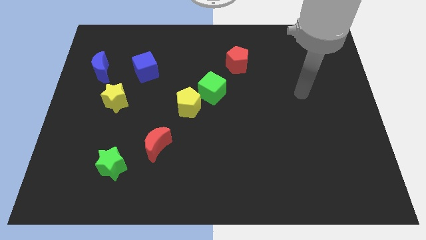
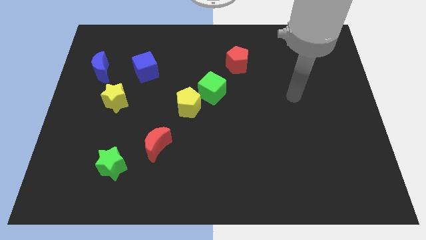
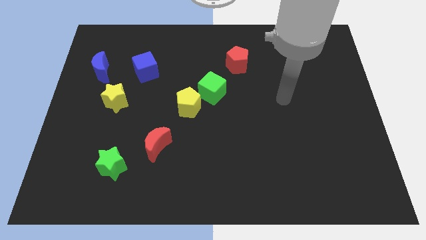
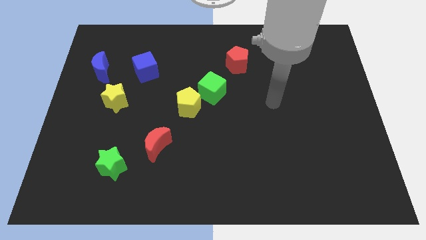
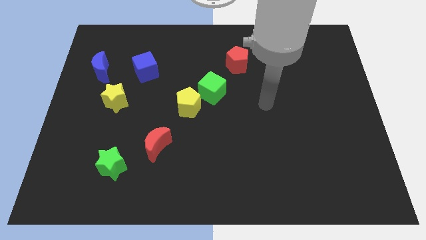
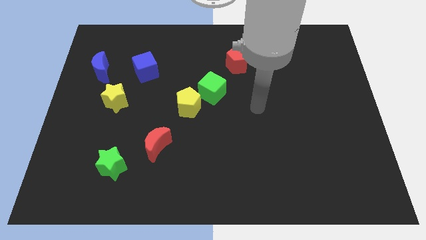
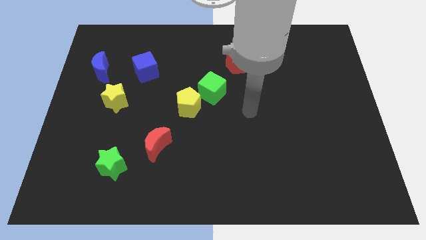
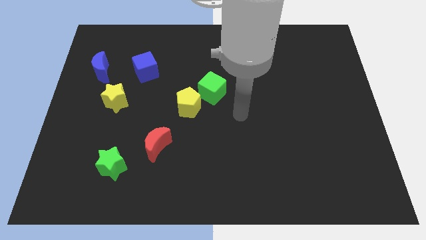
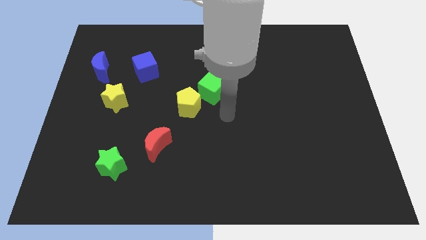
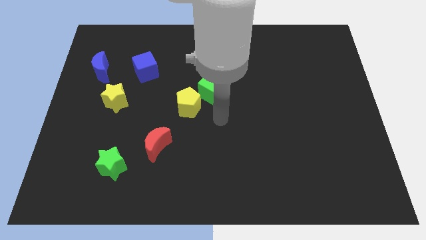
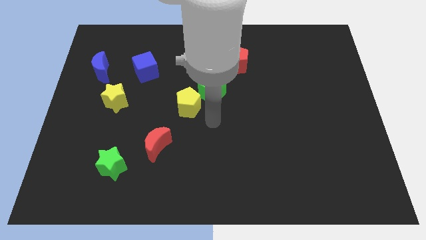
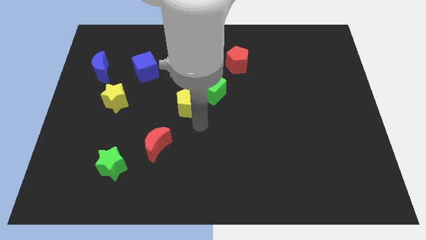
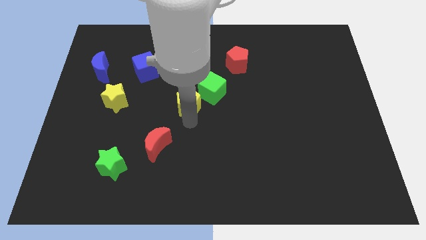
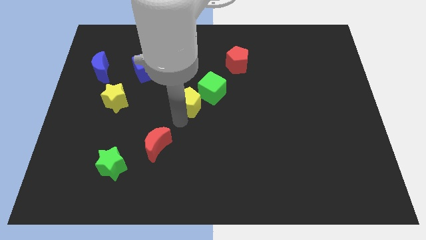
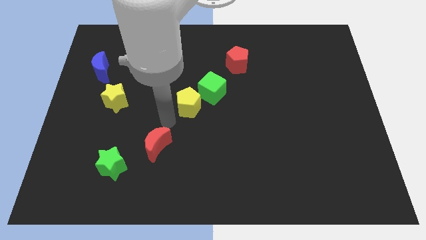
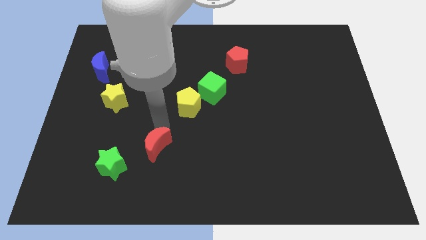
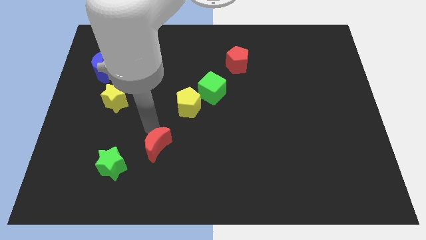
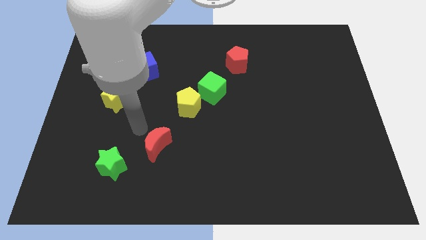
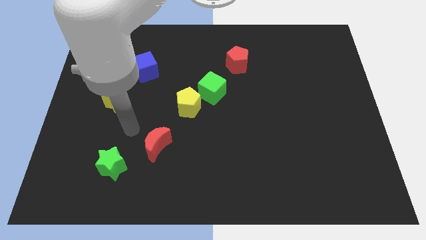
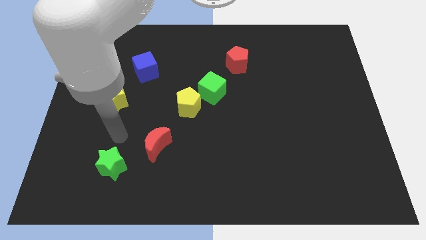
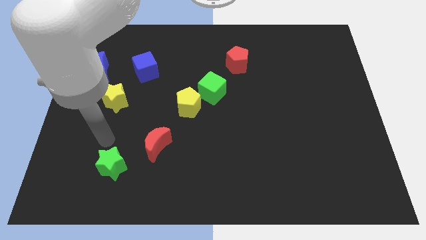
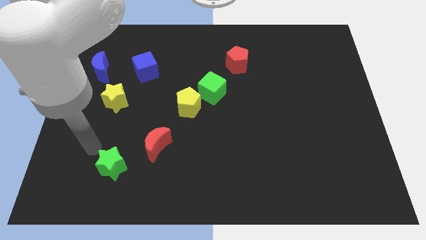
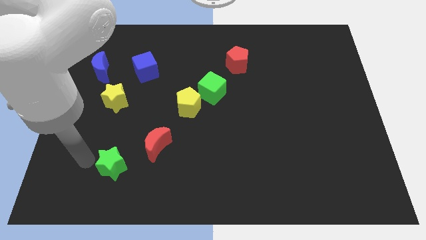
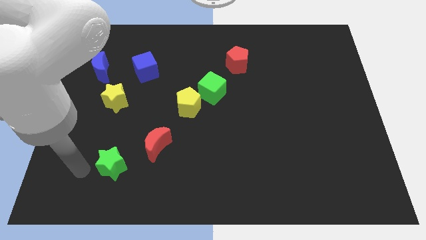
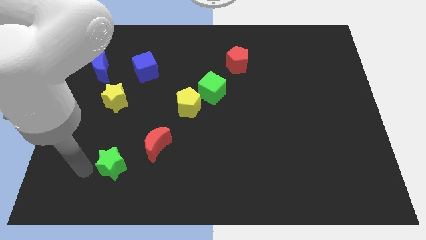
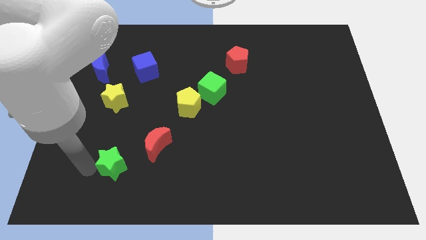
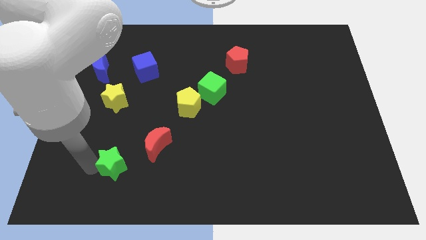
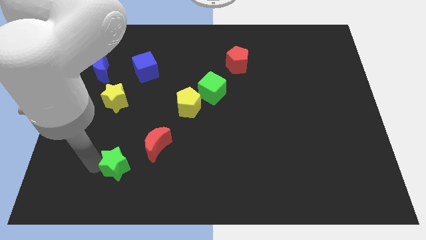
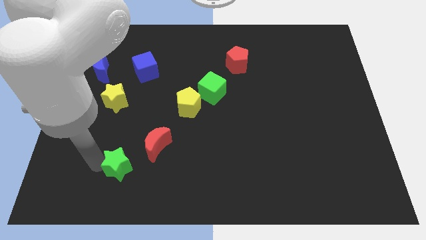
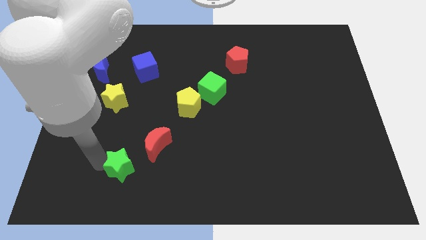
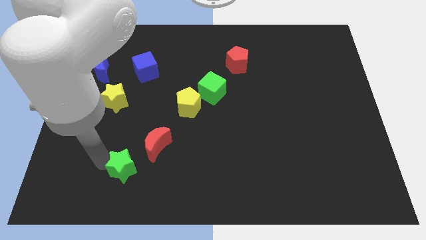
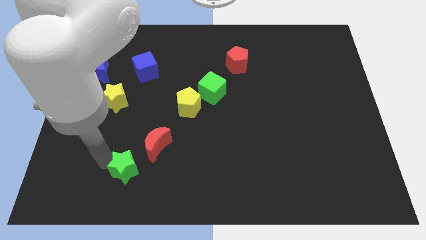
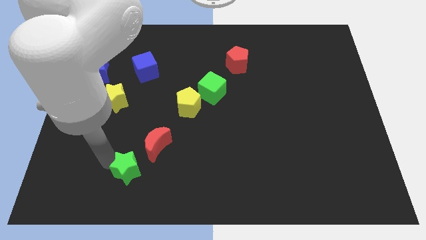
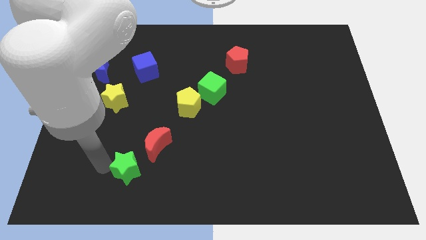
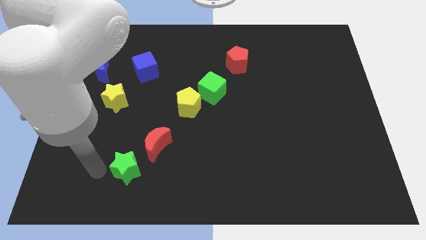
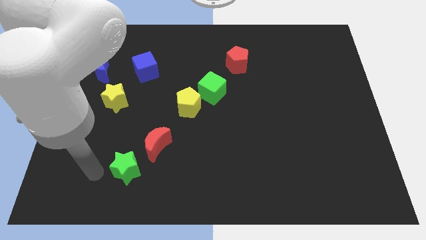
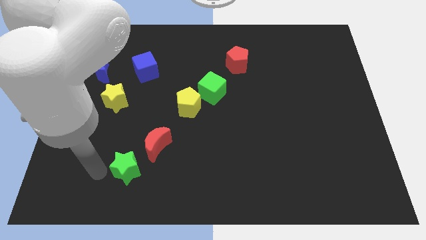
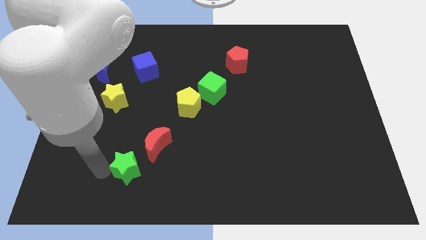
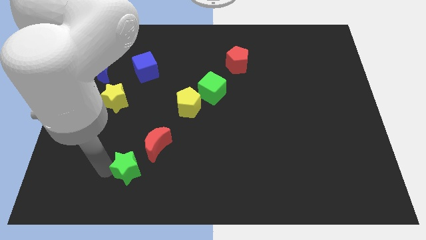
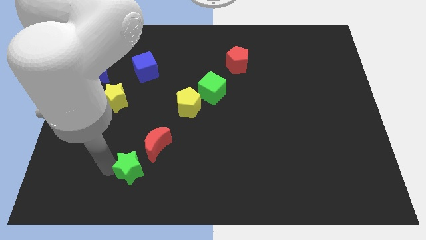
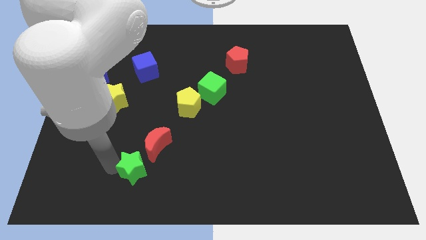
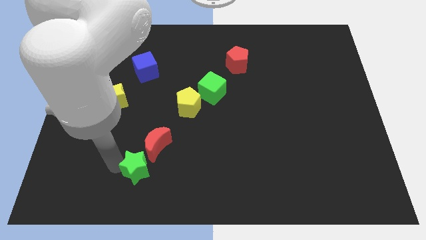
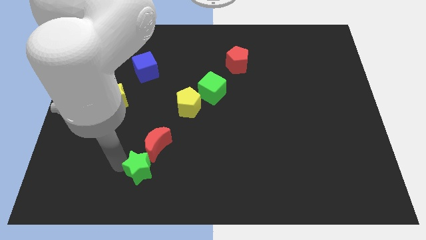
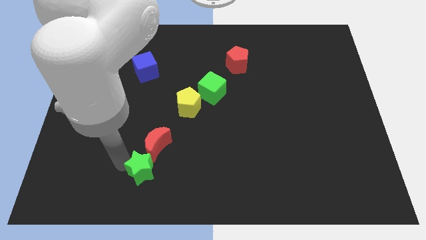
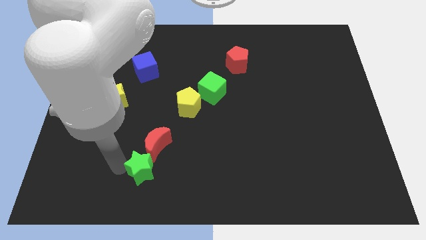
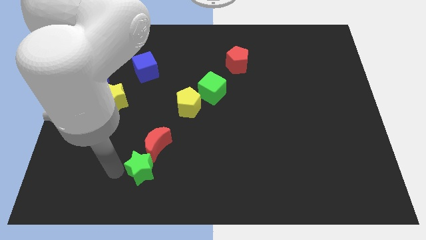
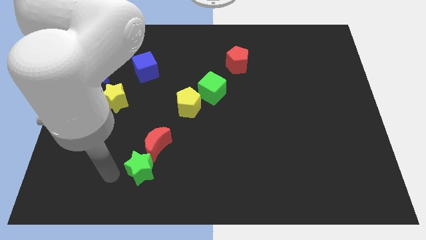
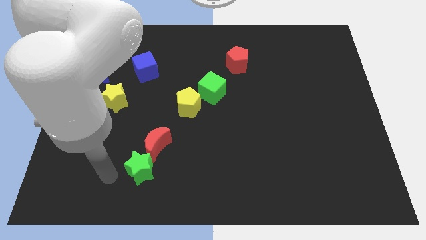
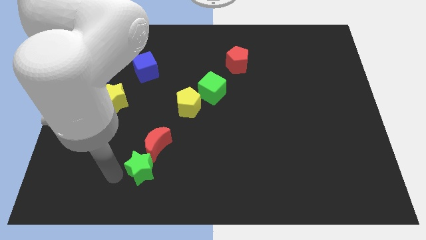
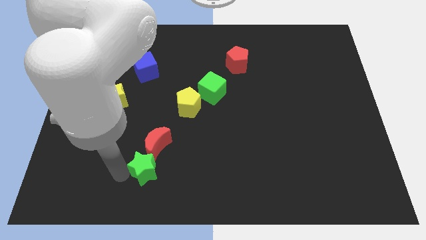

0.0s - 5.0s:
push the green star to the right a bit

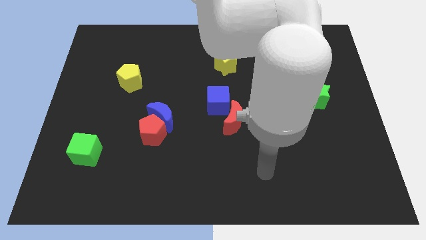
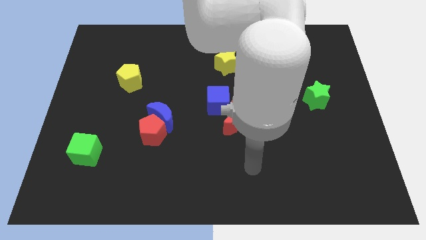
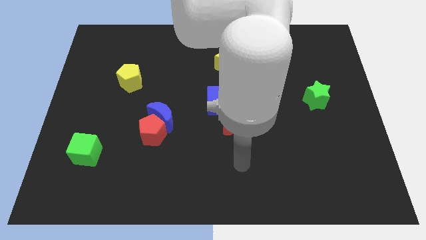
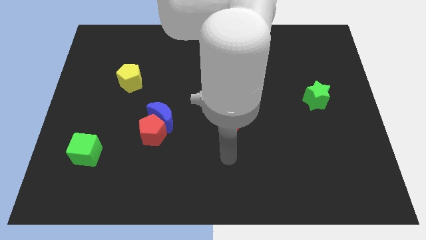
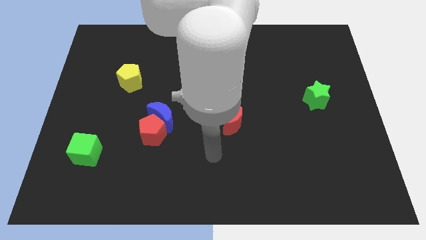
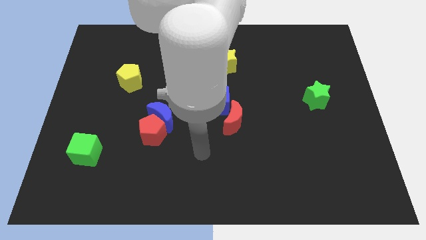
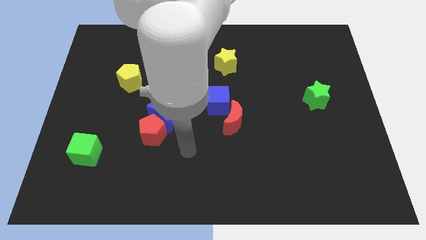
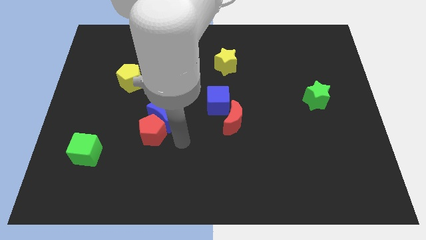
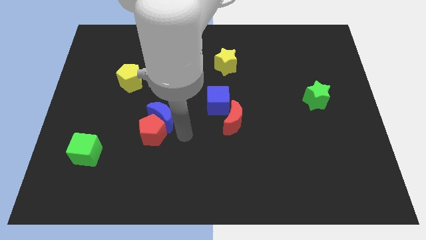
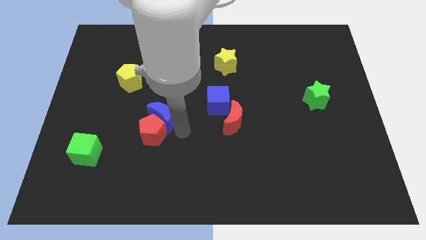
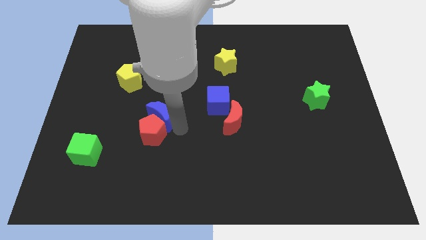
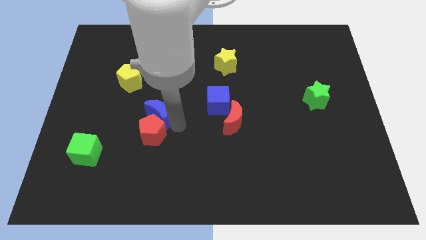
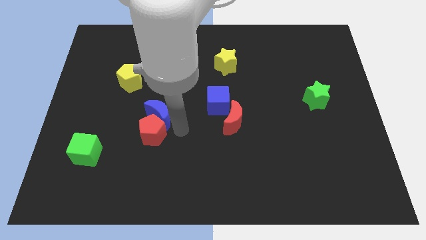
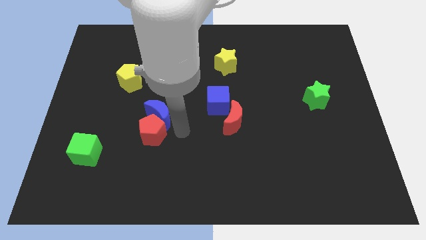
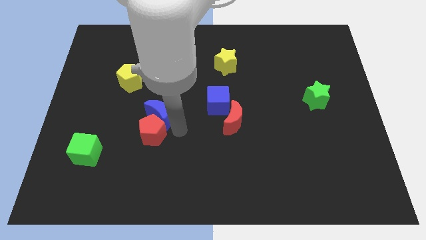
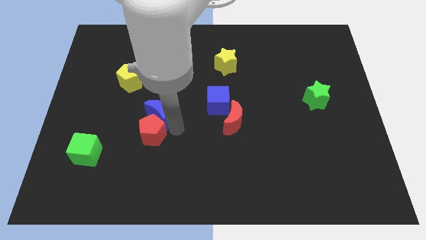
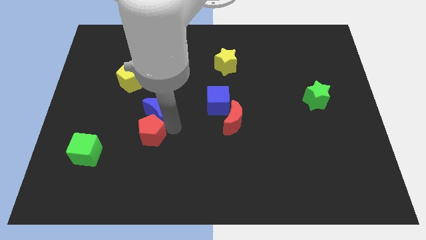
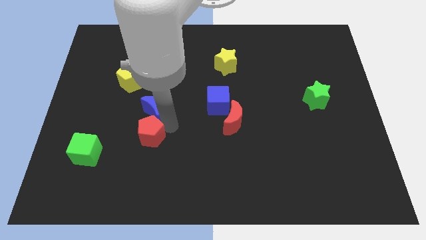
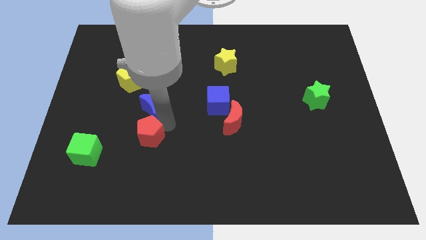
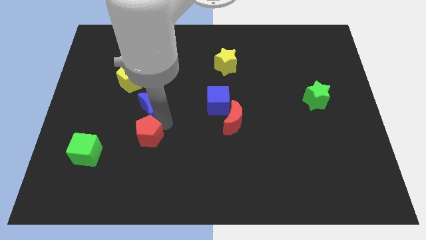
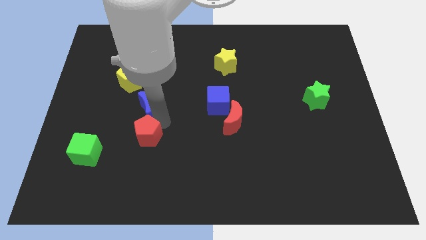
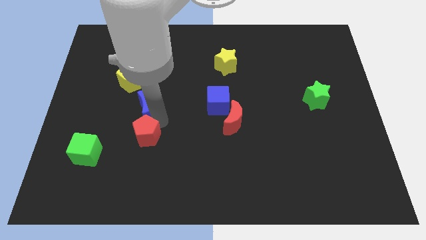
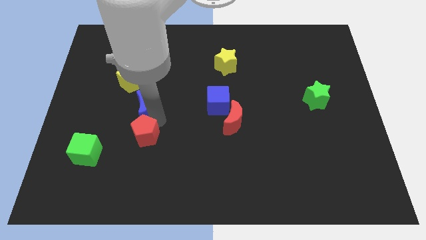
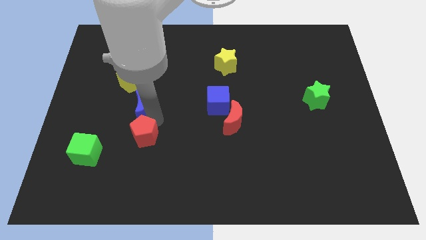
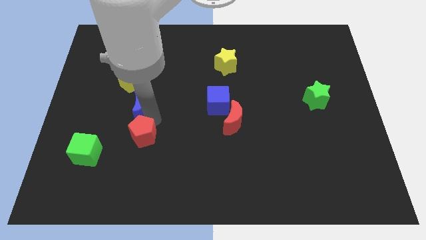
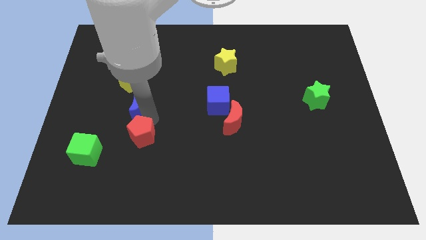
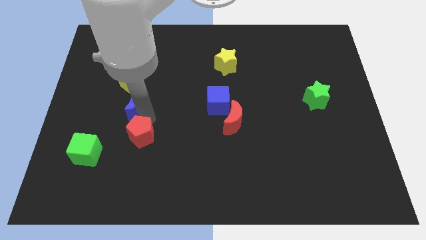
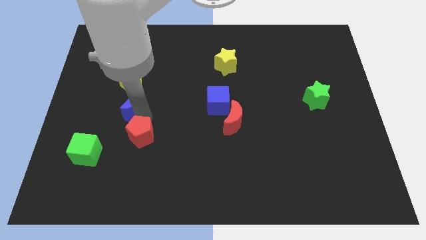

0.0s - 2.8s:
push the blue moon up and to the left diagonally slightly
